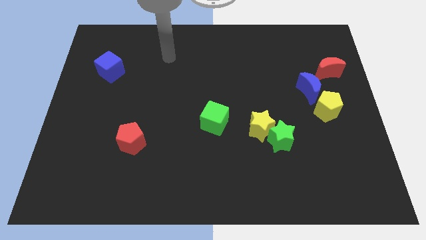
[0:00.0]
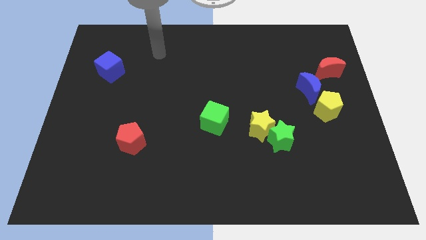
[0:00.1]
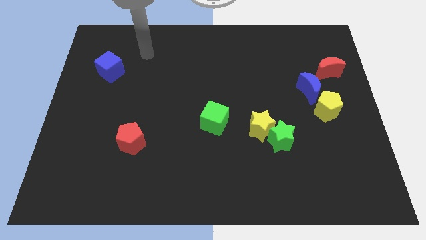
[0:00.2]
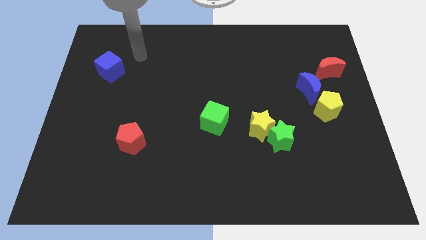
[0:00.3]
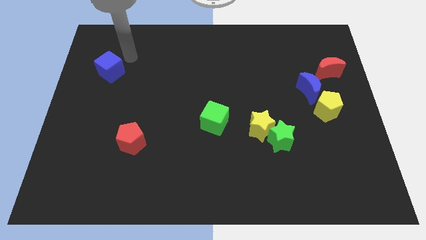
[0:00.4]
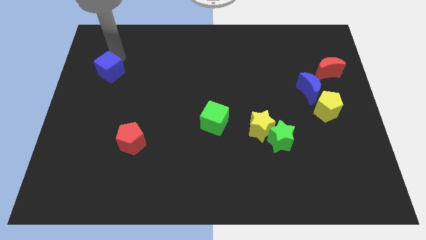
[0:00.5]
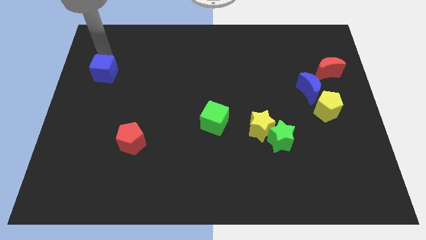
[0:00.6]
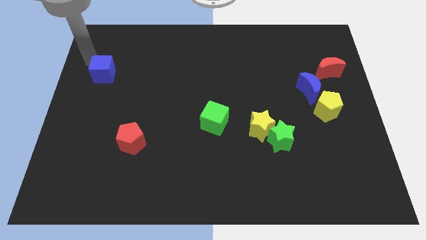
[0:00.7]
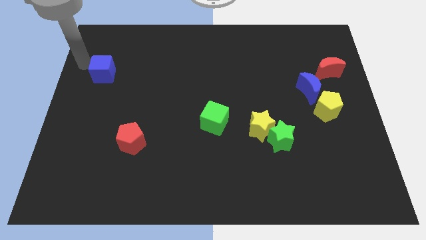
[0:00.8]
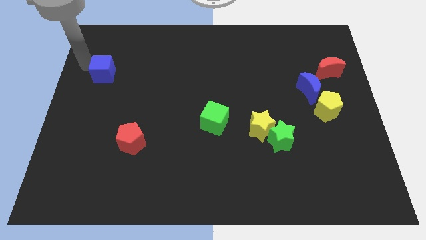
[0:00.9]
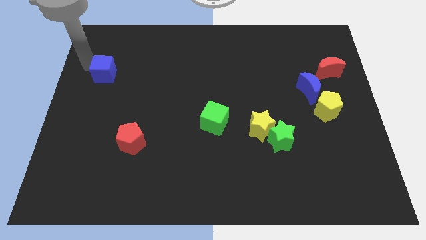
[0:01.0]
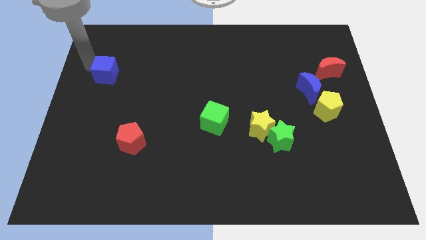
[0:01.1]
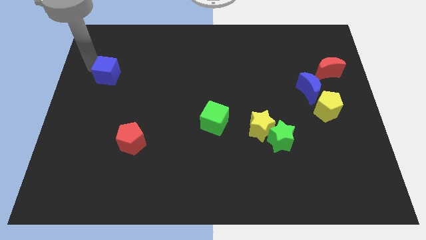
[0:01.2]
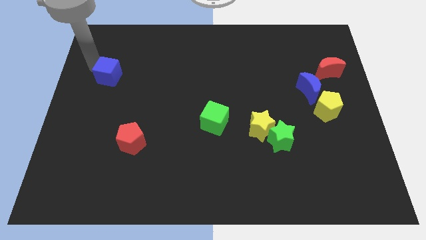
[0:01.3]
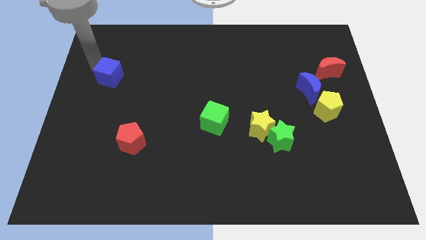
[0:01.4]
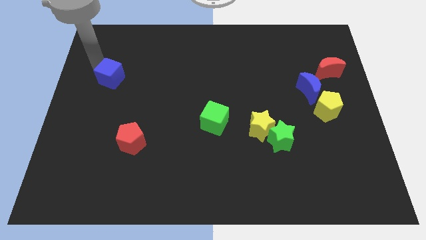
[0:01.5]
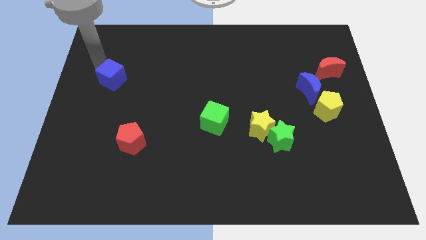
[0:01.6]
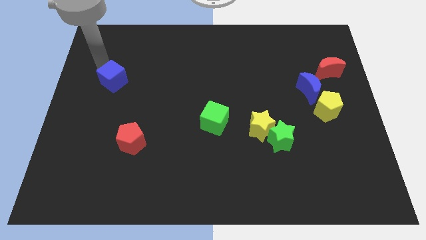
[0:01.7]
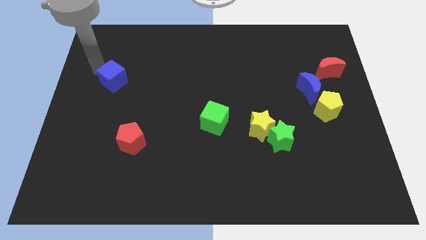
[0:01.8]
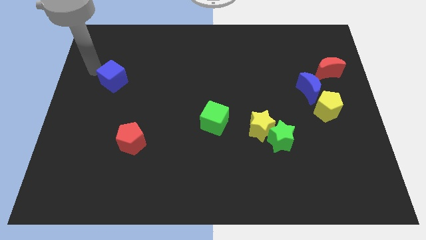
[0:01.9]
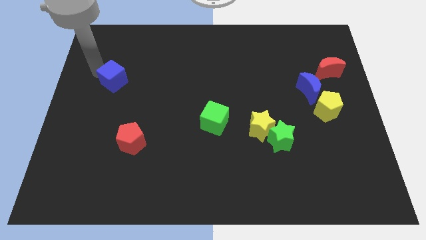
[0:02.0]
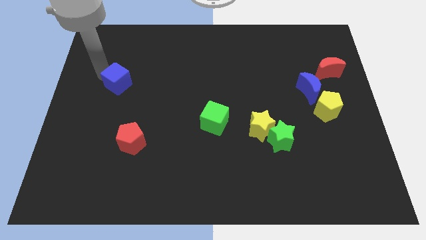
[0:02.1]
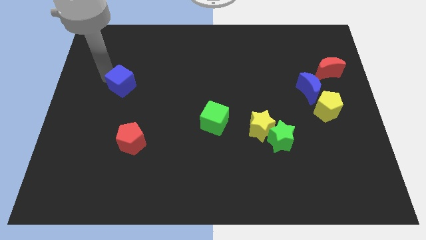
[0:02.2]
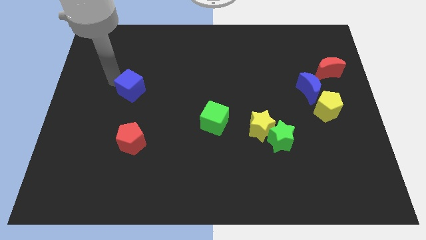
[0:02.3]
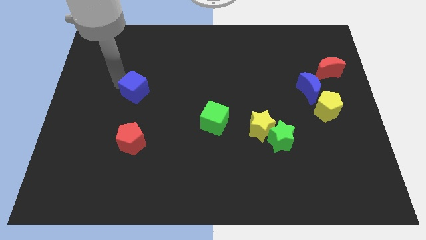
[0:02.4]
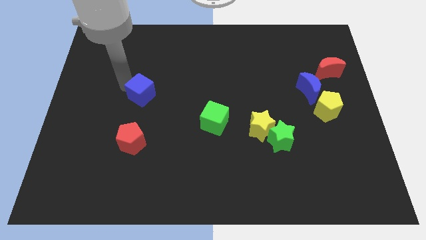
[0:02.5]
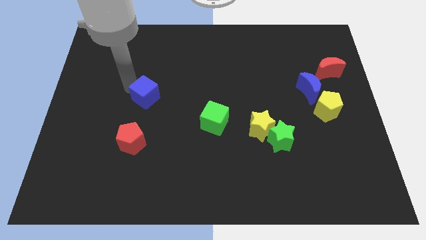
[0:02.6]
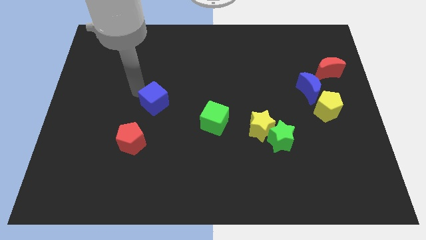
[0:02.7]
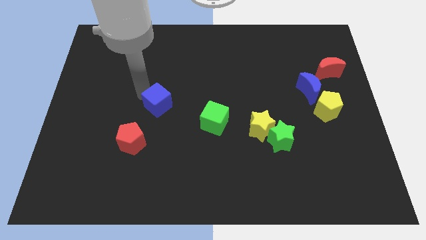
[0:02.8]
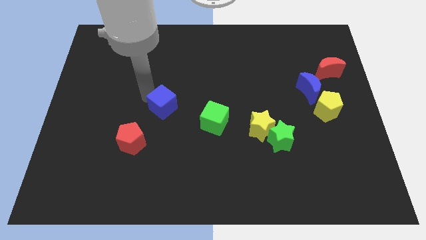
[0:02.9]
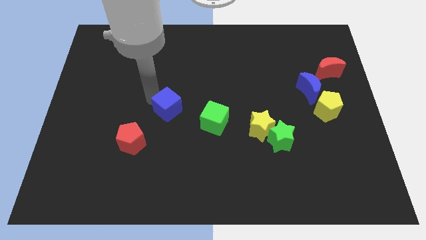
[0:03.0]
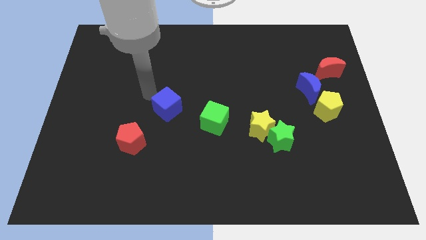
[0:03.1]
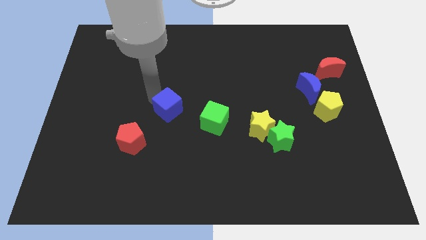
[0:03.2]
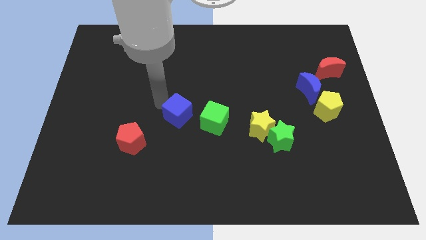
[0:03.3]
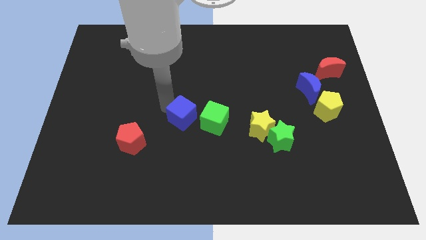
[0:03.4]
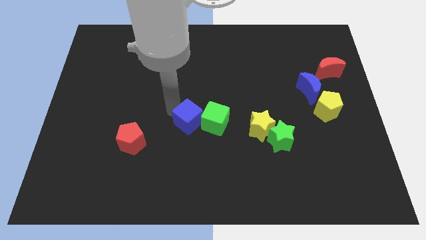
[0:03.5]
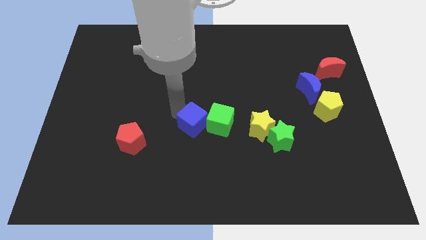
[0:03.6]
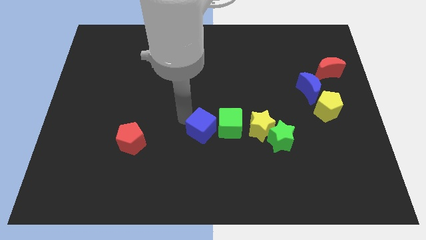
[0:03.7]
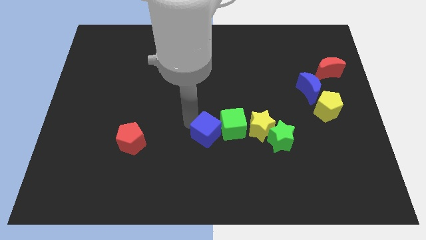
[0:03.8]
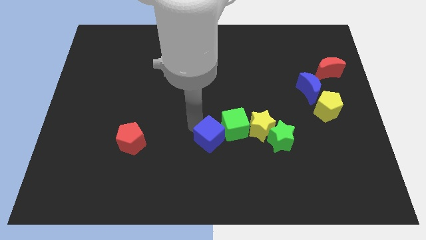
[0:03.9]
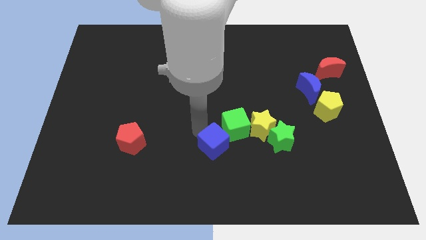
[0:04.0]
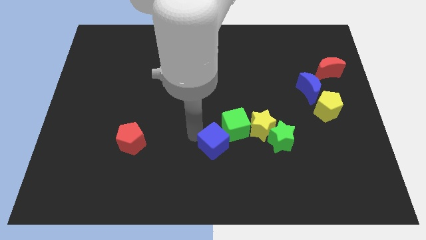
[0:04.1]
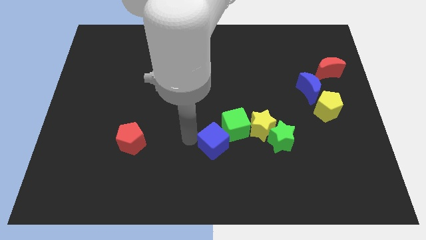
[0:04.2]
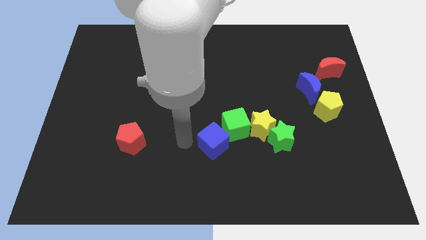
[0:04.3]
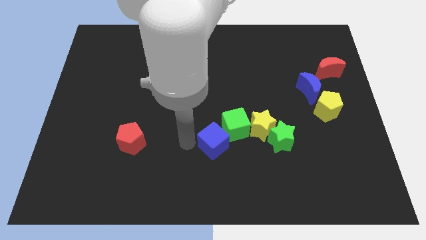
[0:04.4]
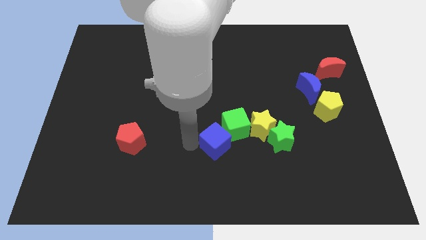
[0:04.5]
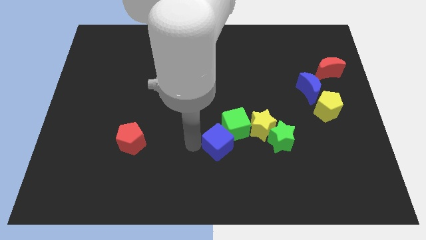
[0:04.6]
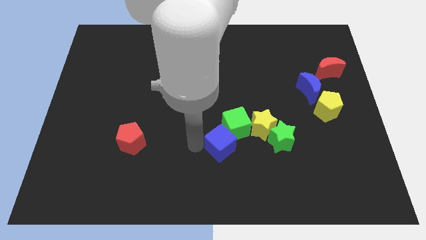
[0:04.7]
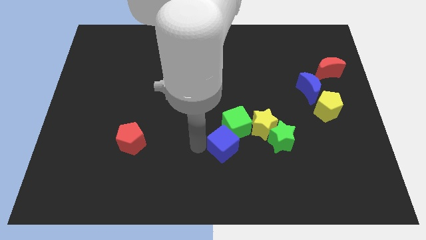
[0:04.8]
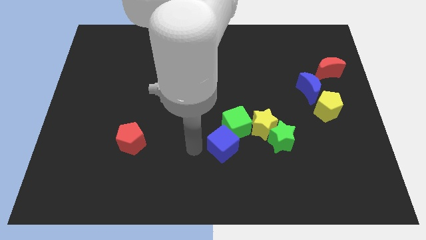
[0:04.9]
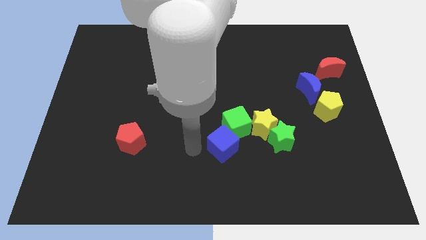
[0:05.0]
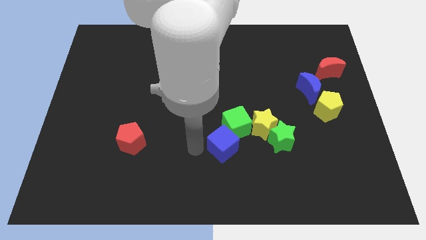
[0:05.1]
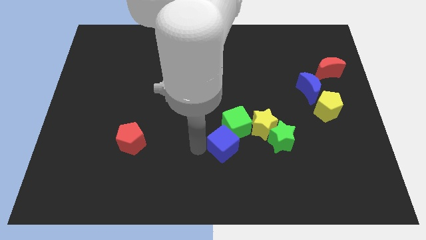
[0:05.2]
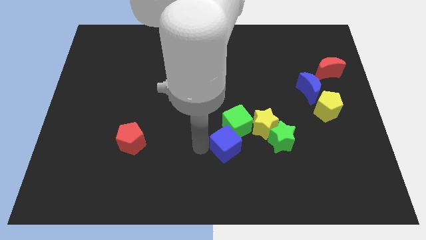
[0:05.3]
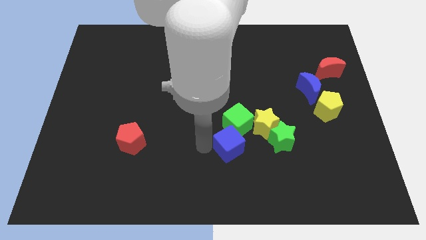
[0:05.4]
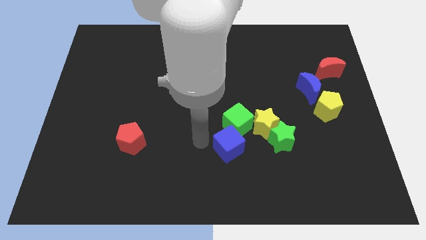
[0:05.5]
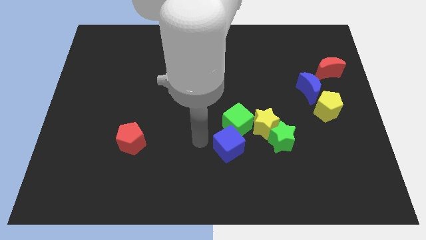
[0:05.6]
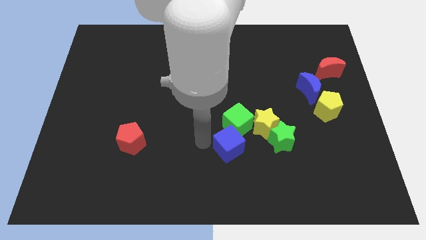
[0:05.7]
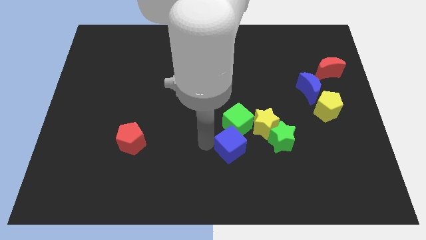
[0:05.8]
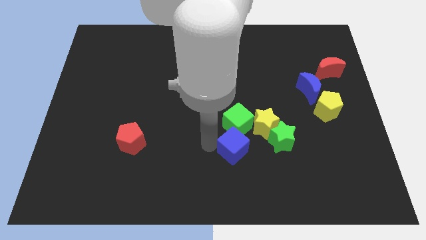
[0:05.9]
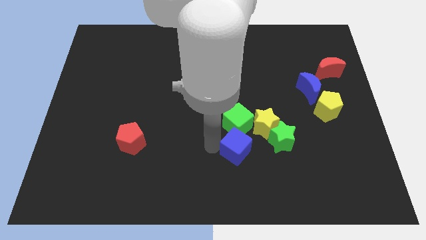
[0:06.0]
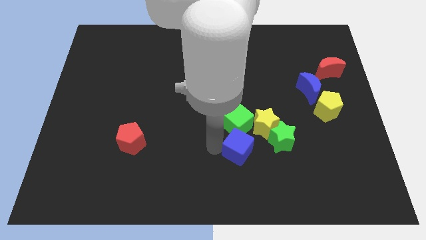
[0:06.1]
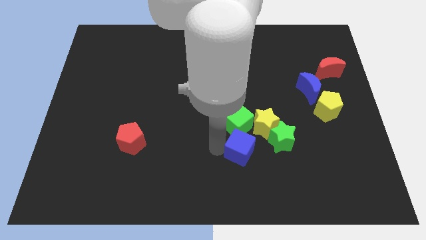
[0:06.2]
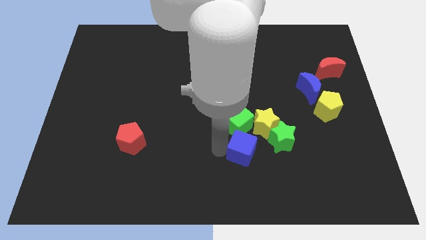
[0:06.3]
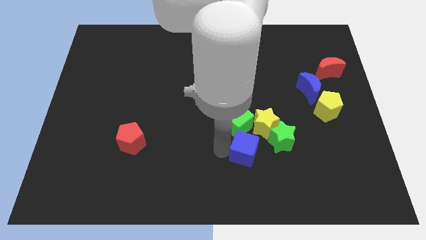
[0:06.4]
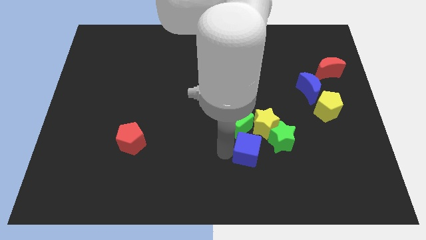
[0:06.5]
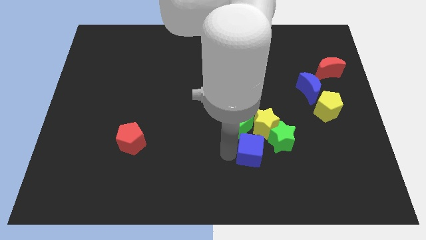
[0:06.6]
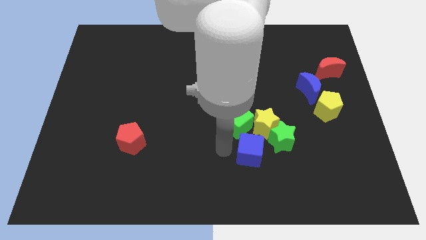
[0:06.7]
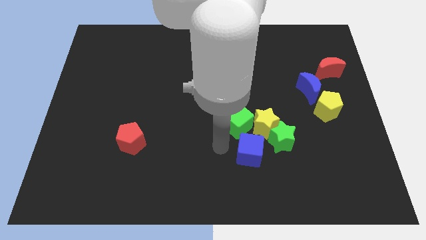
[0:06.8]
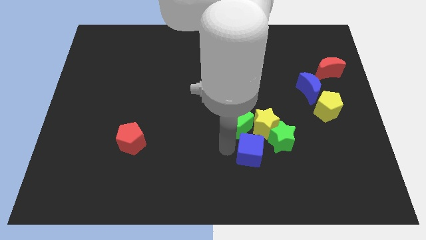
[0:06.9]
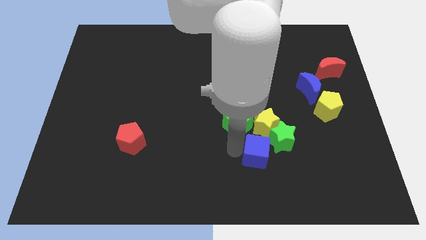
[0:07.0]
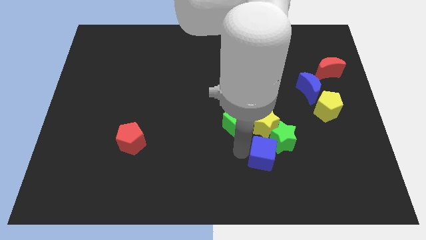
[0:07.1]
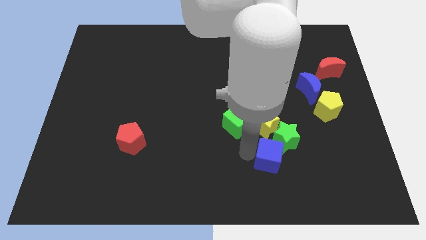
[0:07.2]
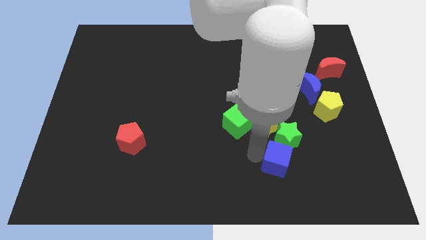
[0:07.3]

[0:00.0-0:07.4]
push the blue cube to the bottom right of the yellow star

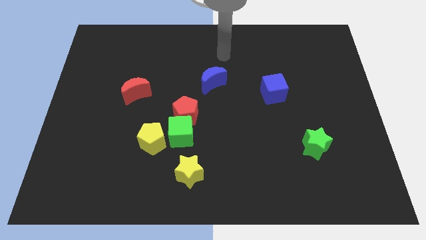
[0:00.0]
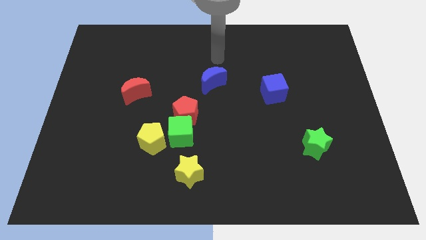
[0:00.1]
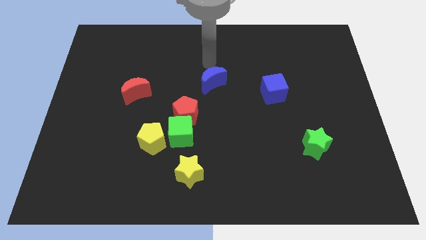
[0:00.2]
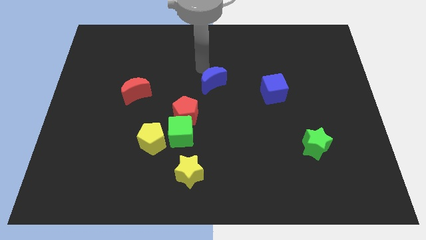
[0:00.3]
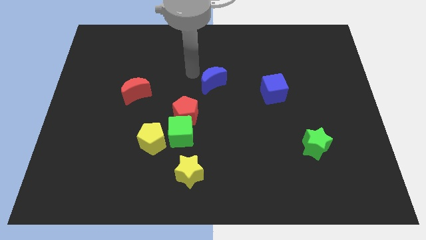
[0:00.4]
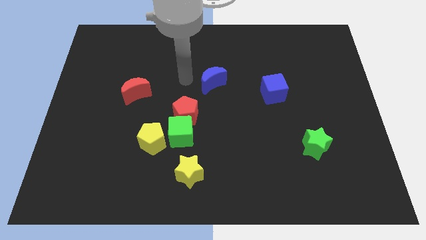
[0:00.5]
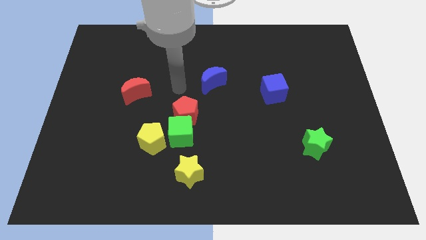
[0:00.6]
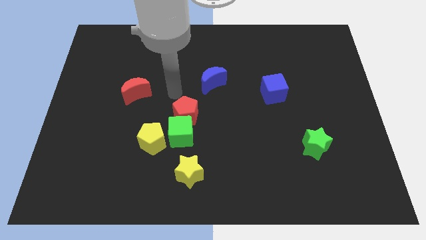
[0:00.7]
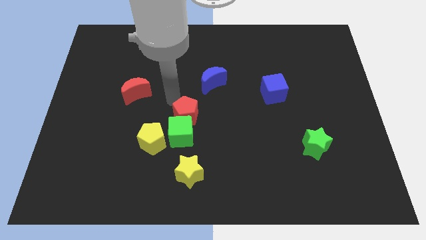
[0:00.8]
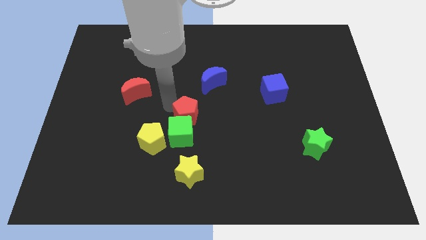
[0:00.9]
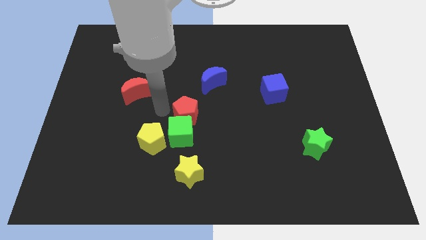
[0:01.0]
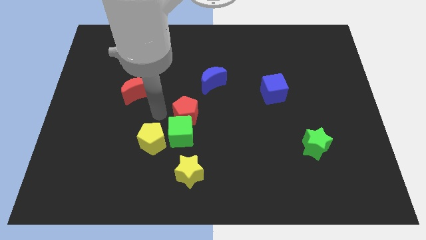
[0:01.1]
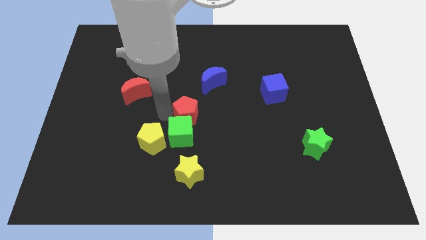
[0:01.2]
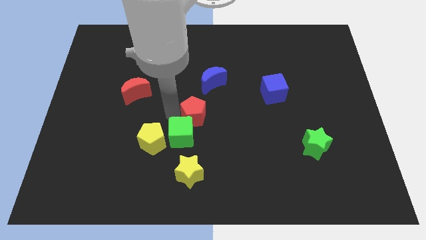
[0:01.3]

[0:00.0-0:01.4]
move the red pentagon to the bottom side of the blue moon
